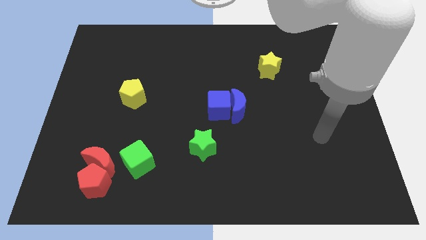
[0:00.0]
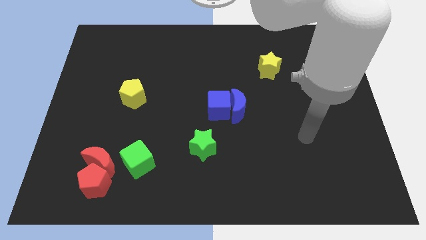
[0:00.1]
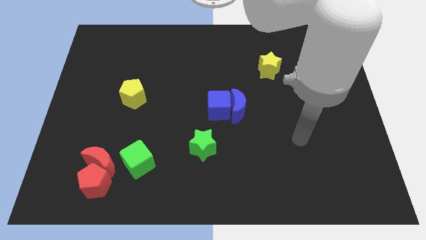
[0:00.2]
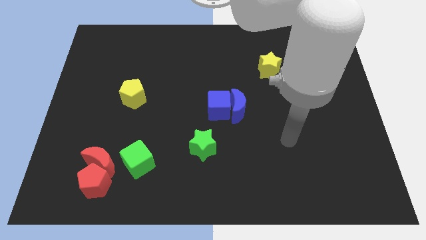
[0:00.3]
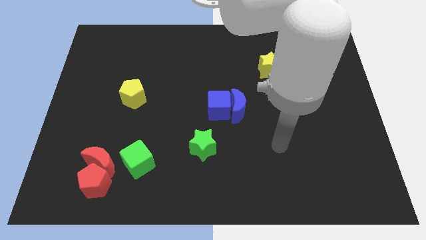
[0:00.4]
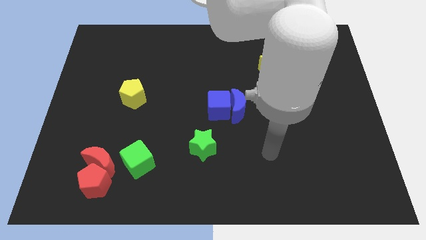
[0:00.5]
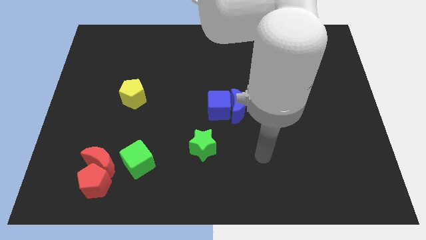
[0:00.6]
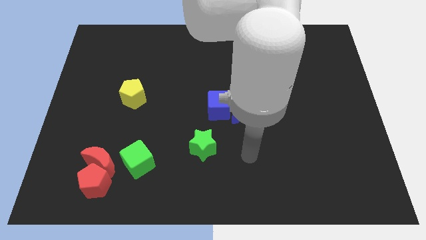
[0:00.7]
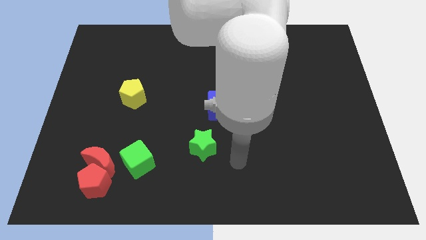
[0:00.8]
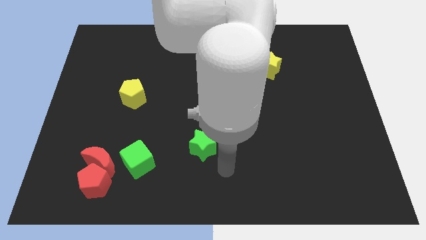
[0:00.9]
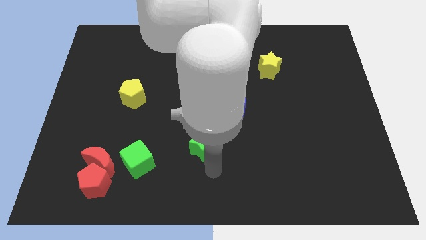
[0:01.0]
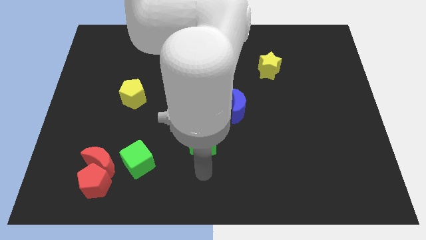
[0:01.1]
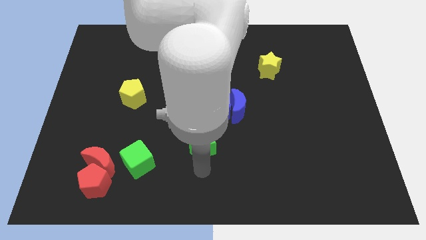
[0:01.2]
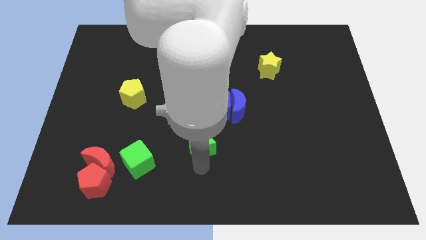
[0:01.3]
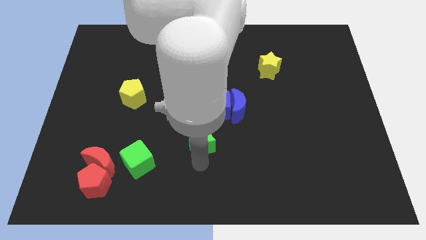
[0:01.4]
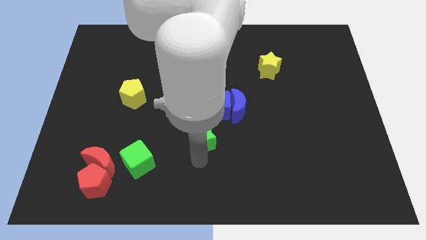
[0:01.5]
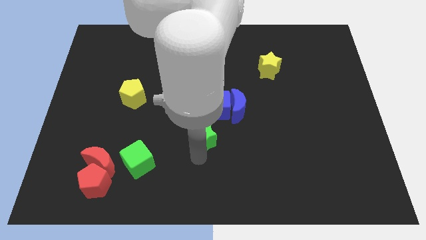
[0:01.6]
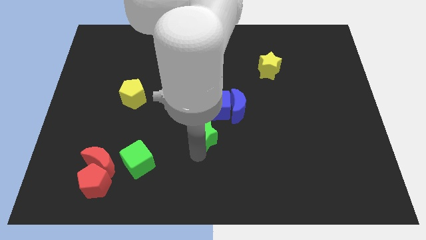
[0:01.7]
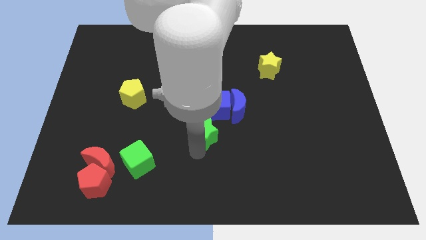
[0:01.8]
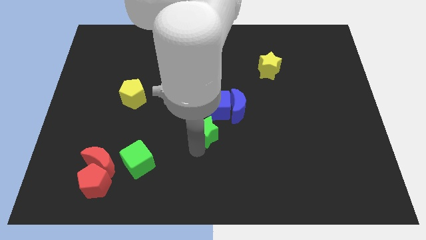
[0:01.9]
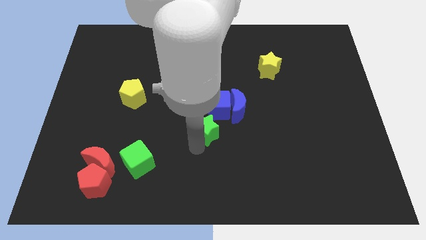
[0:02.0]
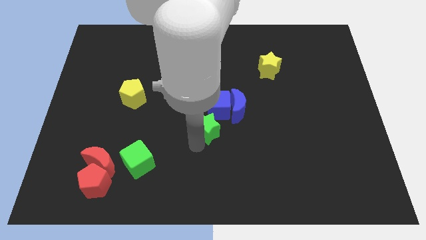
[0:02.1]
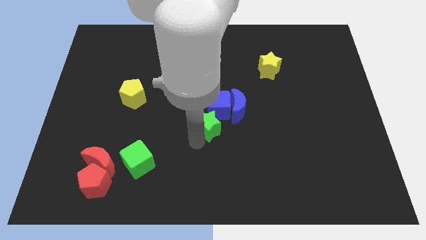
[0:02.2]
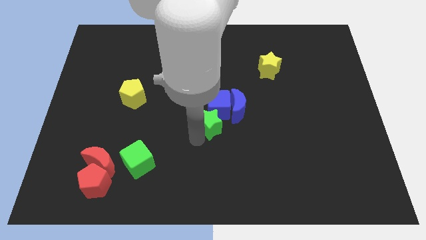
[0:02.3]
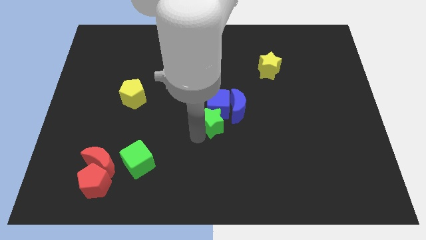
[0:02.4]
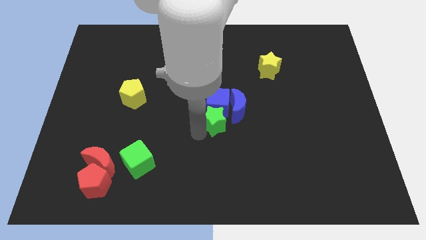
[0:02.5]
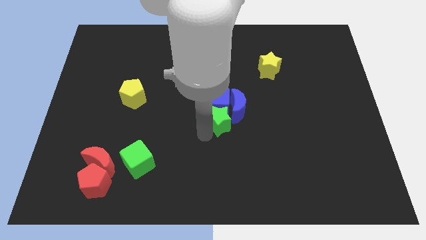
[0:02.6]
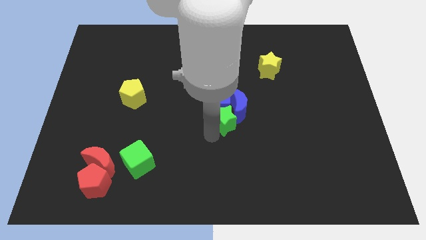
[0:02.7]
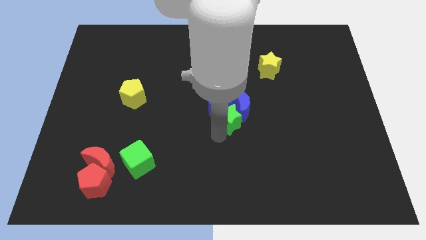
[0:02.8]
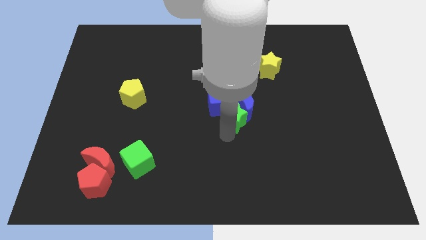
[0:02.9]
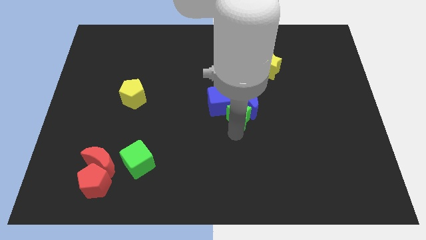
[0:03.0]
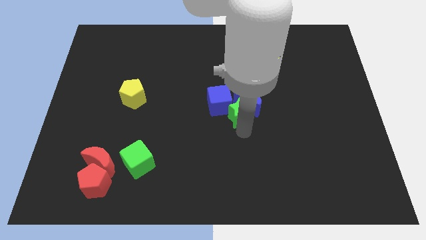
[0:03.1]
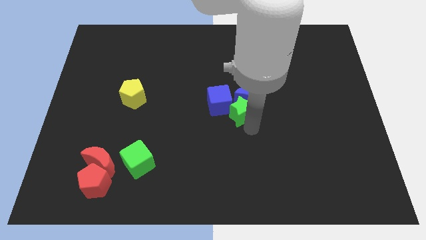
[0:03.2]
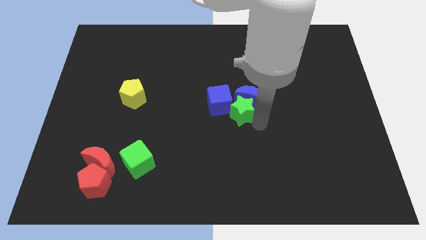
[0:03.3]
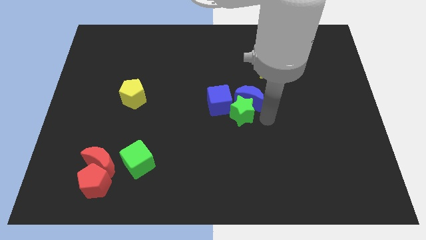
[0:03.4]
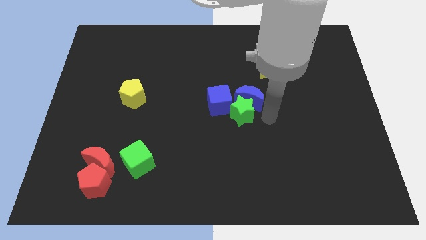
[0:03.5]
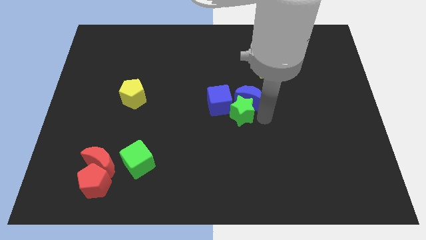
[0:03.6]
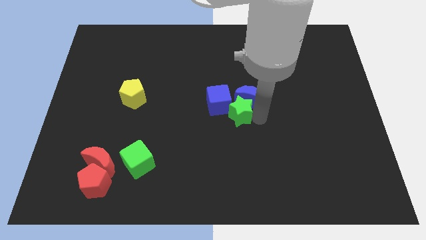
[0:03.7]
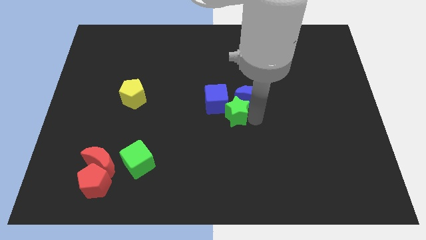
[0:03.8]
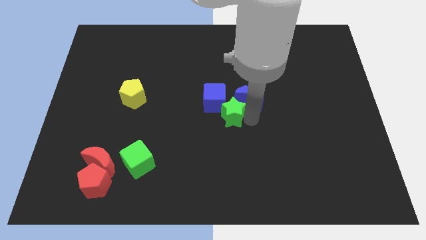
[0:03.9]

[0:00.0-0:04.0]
move the green star somewhat upwards

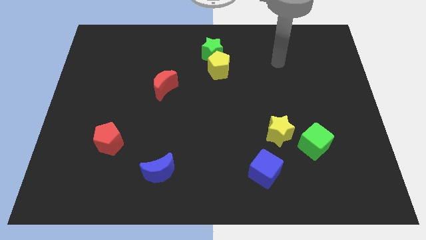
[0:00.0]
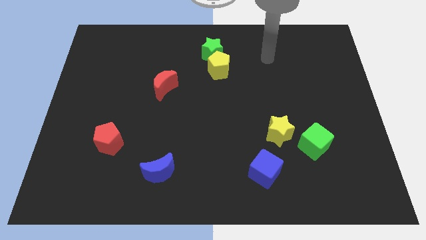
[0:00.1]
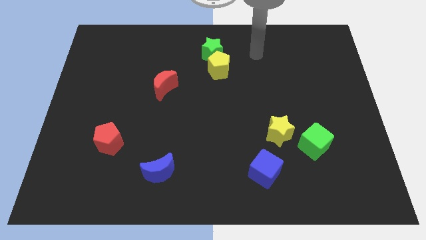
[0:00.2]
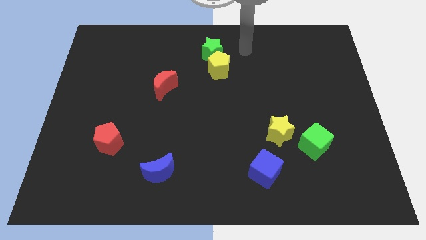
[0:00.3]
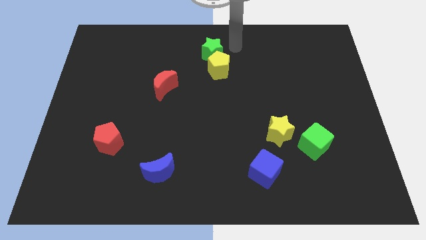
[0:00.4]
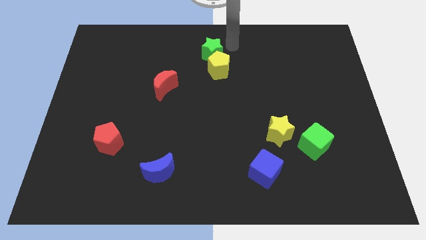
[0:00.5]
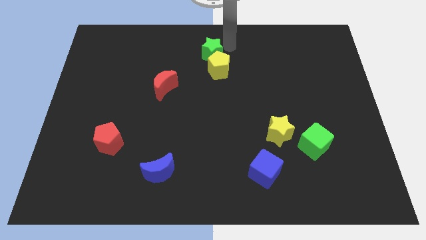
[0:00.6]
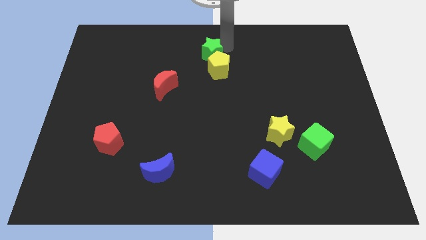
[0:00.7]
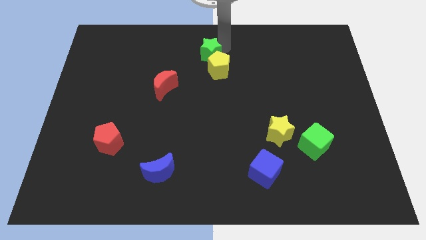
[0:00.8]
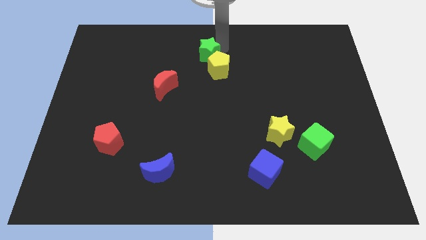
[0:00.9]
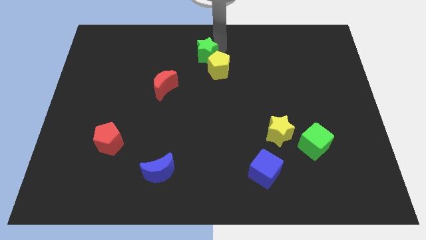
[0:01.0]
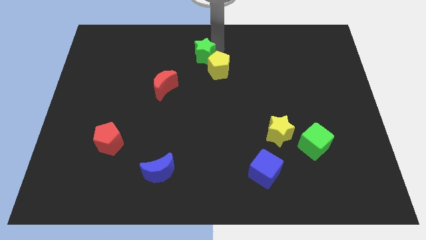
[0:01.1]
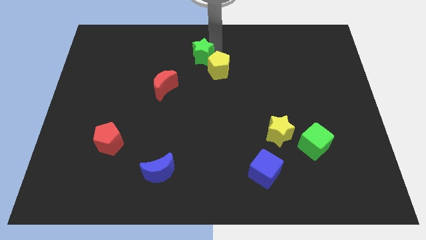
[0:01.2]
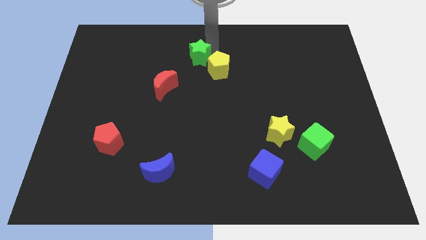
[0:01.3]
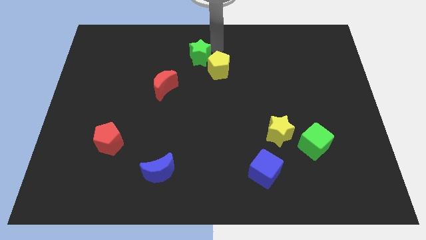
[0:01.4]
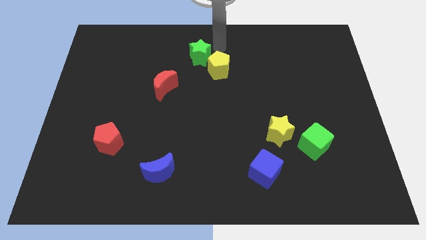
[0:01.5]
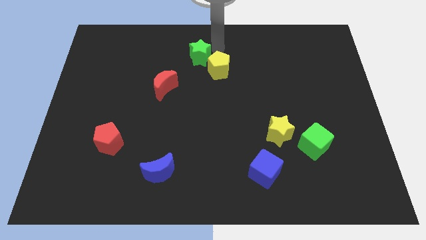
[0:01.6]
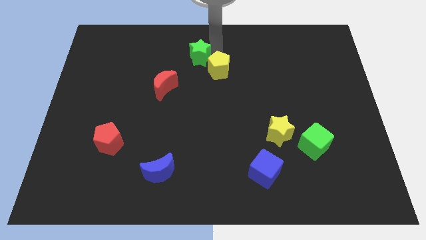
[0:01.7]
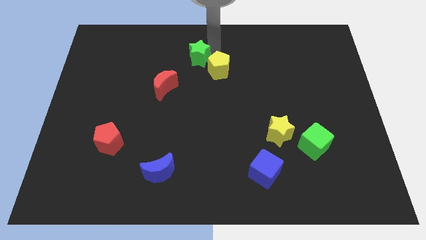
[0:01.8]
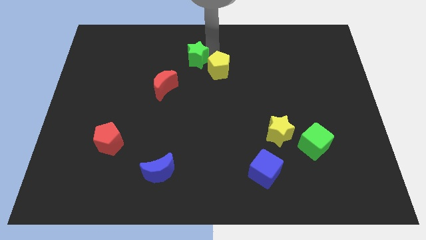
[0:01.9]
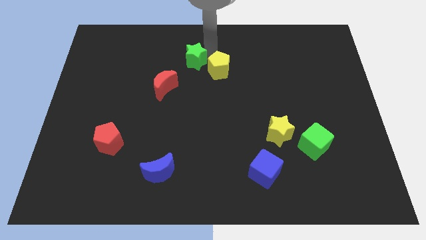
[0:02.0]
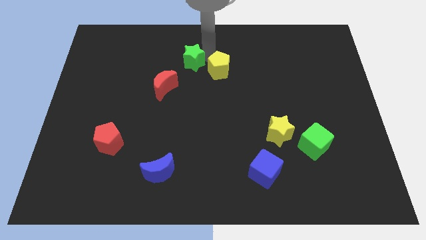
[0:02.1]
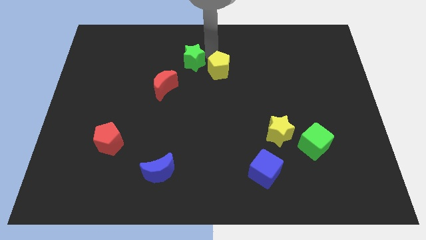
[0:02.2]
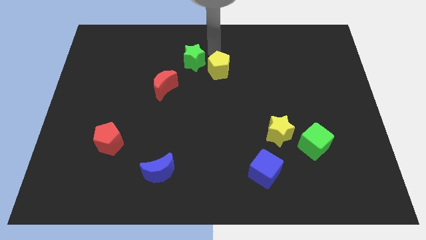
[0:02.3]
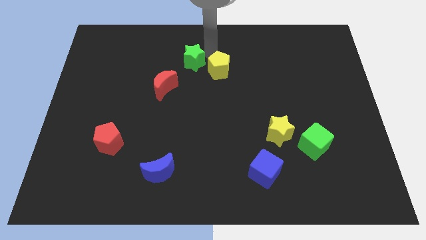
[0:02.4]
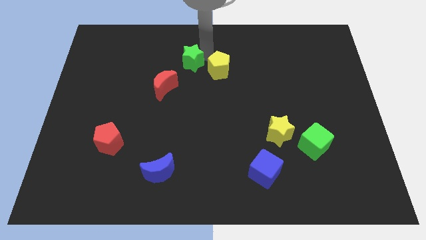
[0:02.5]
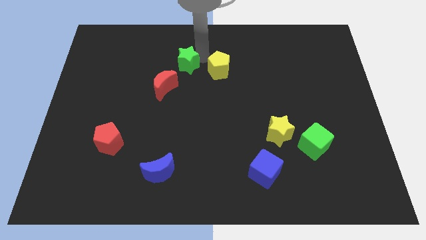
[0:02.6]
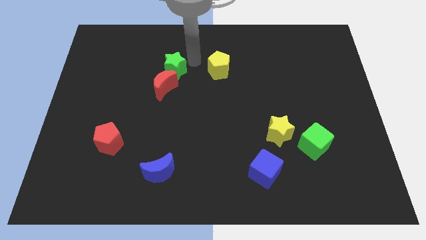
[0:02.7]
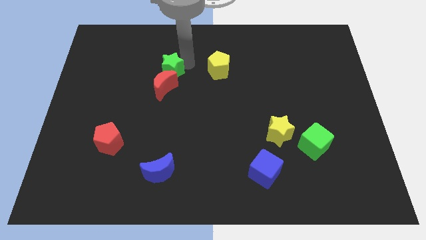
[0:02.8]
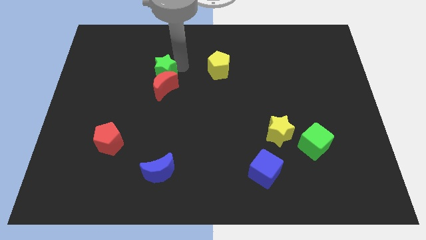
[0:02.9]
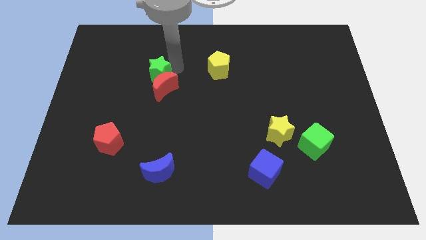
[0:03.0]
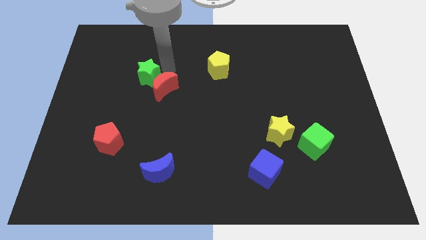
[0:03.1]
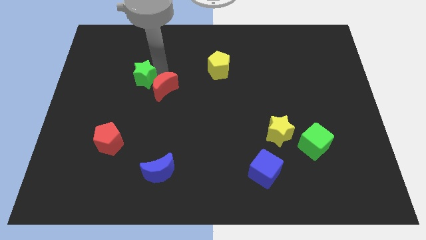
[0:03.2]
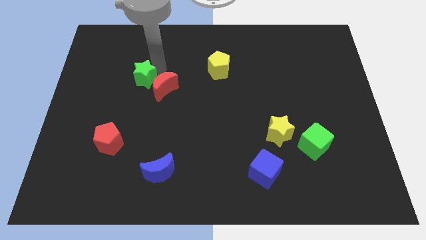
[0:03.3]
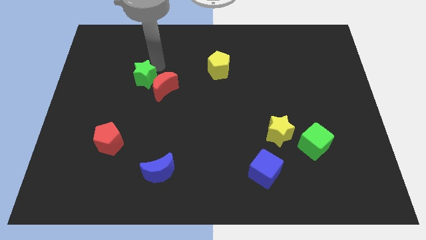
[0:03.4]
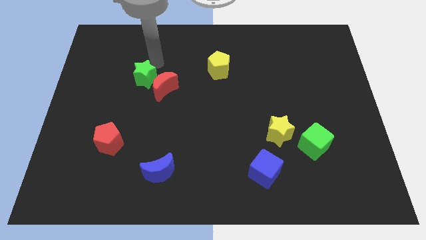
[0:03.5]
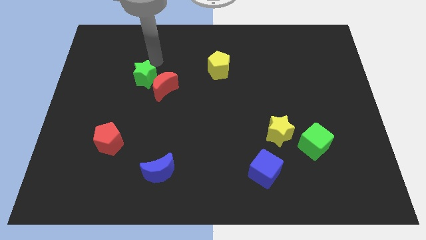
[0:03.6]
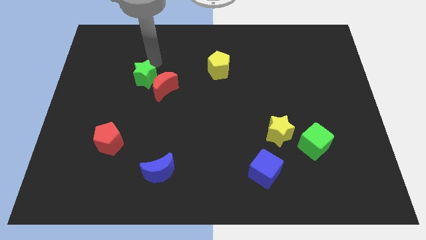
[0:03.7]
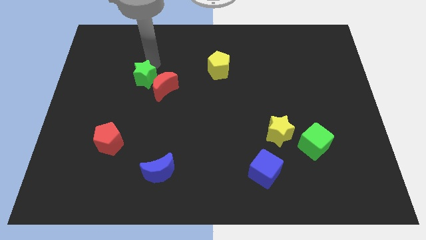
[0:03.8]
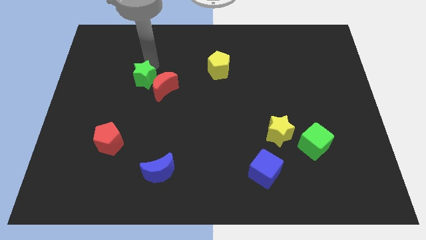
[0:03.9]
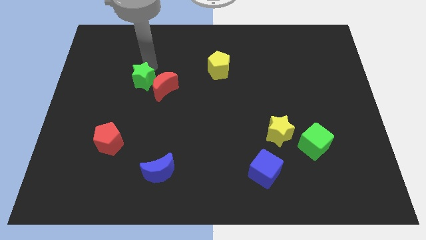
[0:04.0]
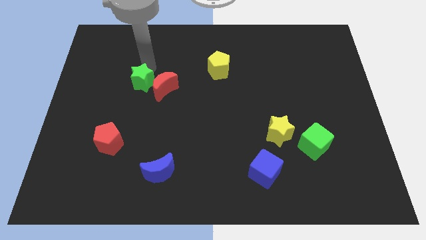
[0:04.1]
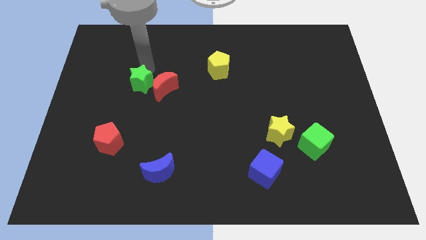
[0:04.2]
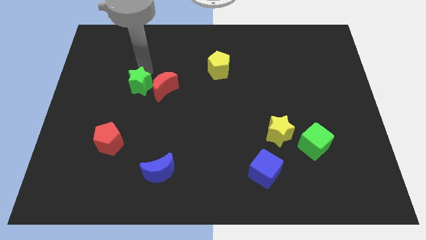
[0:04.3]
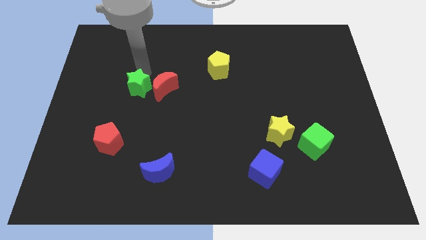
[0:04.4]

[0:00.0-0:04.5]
move the green star down and to the left diagonally
